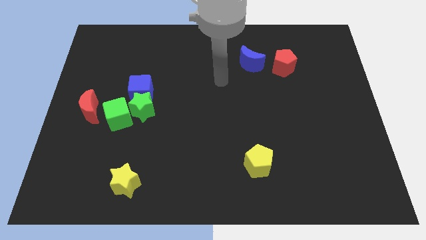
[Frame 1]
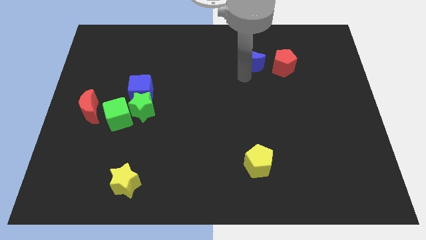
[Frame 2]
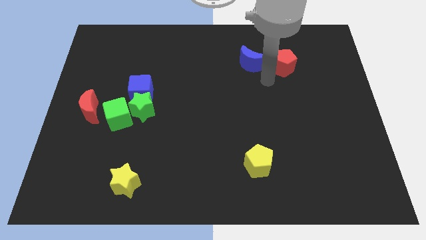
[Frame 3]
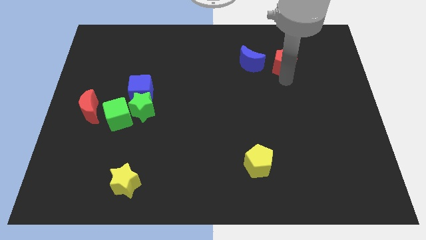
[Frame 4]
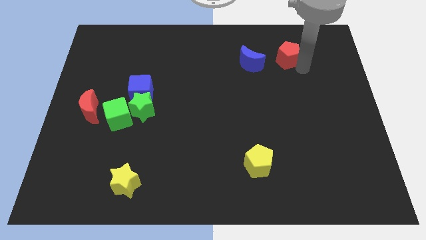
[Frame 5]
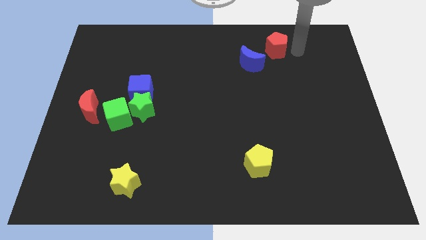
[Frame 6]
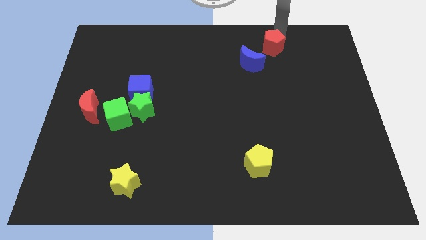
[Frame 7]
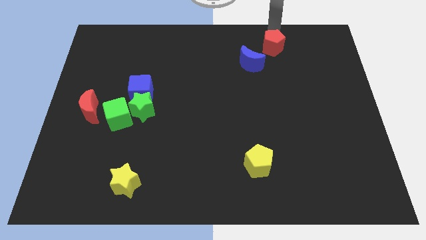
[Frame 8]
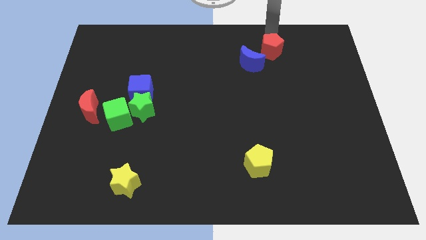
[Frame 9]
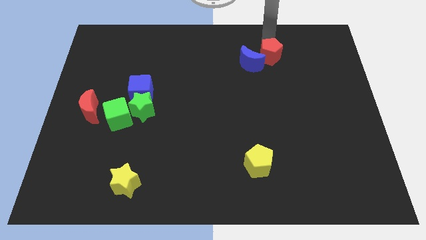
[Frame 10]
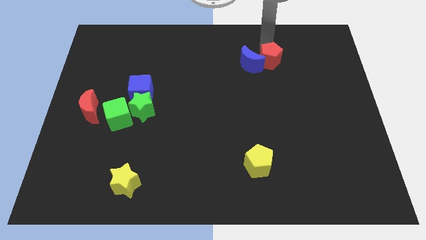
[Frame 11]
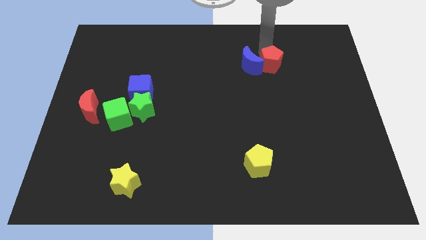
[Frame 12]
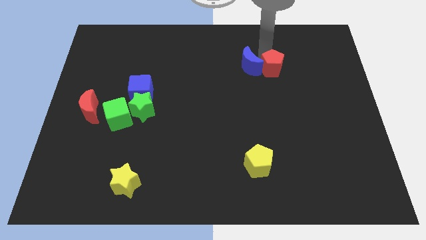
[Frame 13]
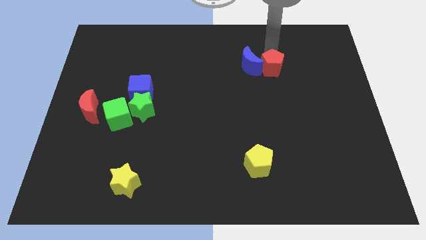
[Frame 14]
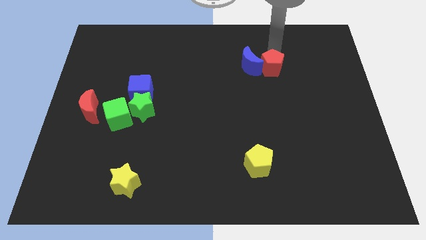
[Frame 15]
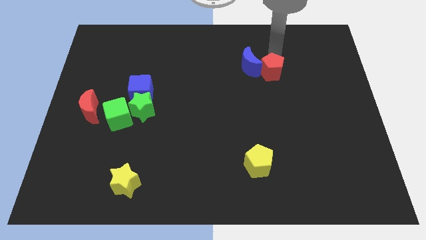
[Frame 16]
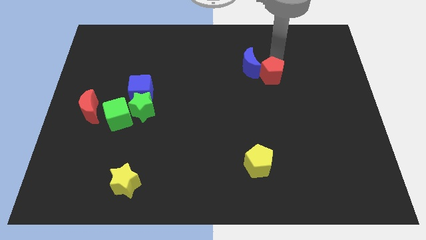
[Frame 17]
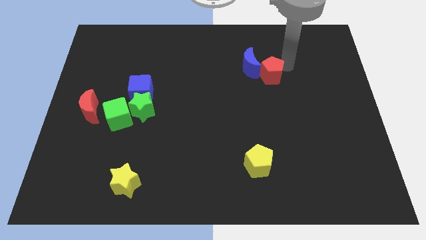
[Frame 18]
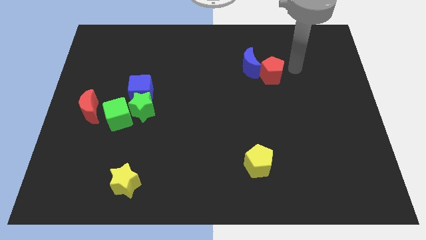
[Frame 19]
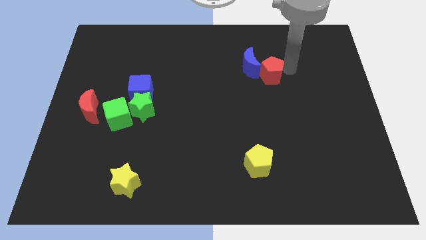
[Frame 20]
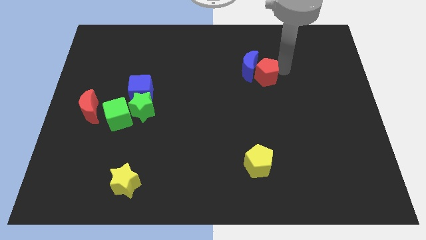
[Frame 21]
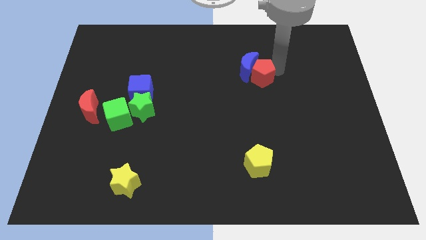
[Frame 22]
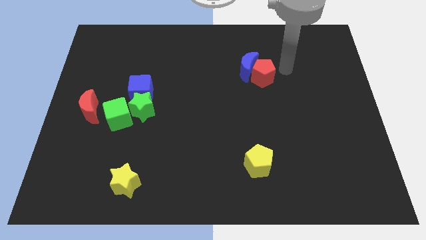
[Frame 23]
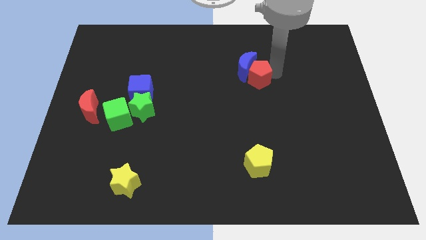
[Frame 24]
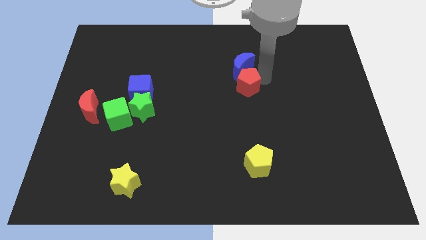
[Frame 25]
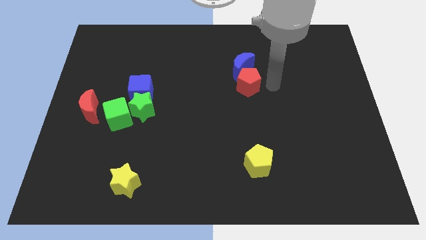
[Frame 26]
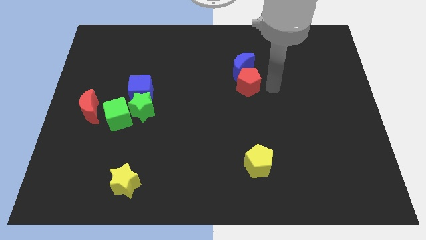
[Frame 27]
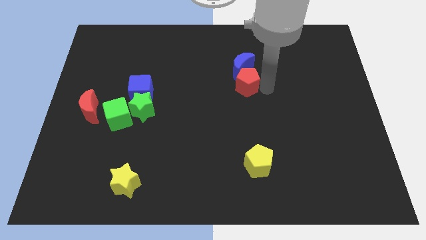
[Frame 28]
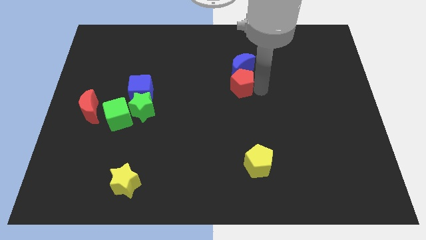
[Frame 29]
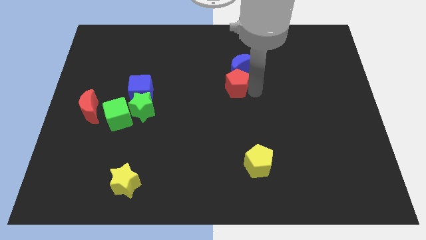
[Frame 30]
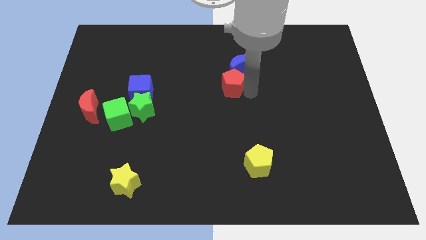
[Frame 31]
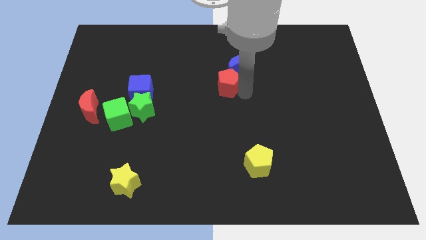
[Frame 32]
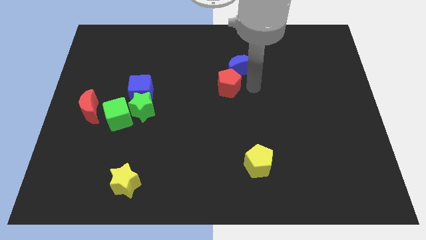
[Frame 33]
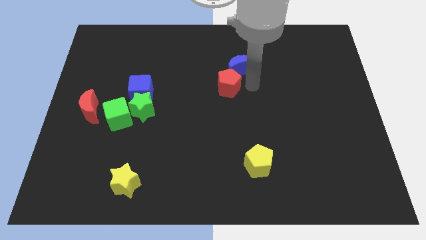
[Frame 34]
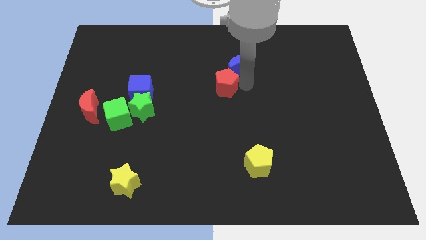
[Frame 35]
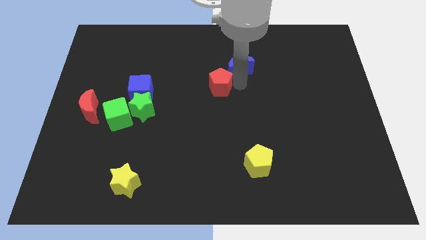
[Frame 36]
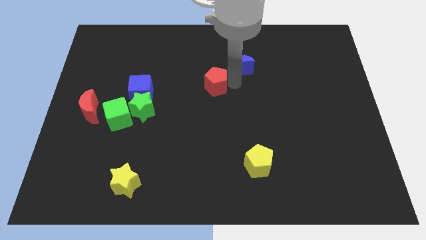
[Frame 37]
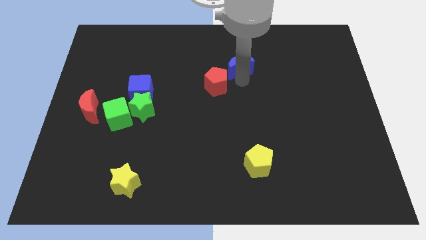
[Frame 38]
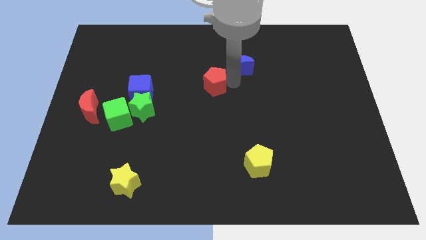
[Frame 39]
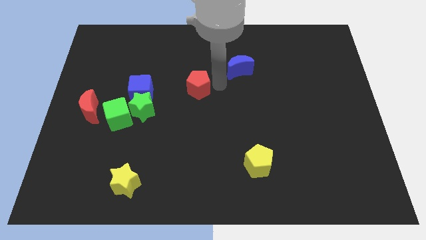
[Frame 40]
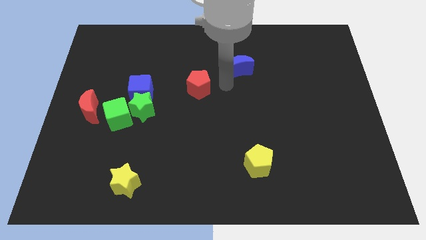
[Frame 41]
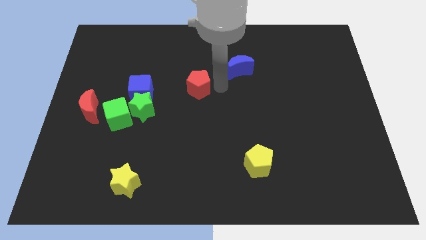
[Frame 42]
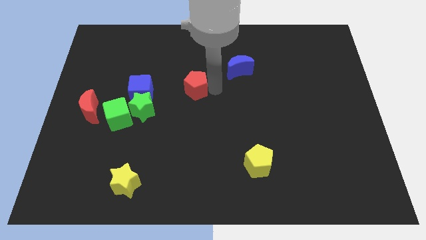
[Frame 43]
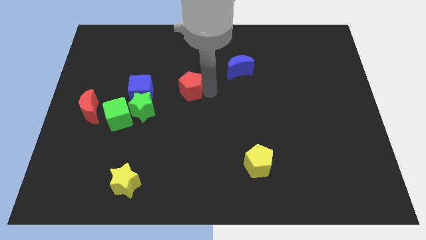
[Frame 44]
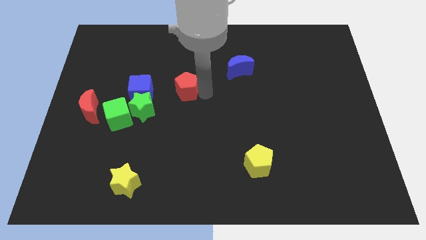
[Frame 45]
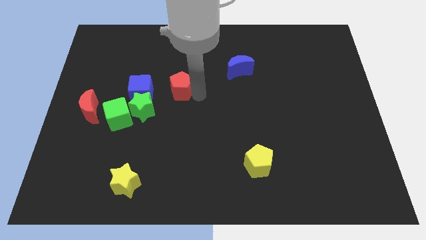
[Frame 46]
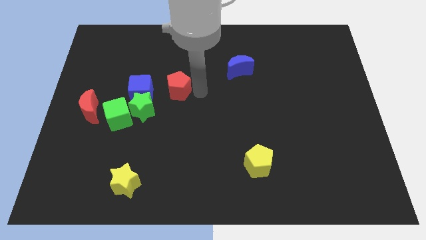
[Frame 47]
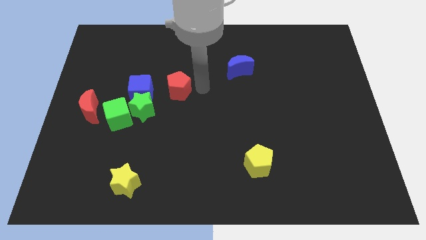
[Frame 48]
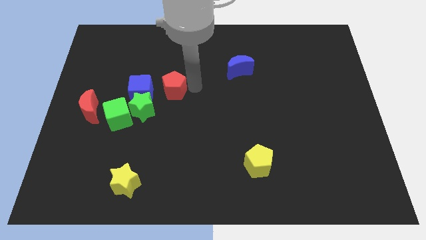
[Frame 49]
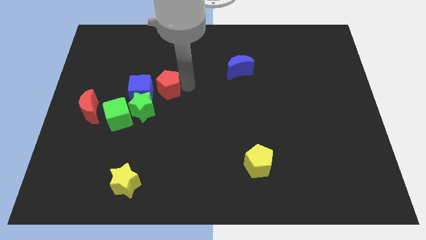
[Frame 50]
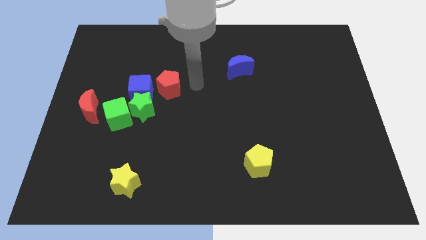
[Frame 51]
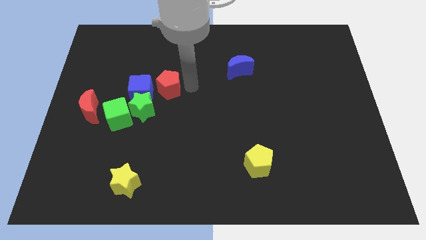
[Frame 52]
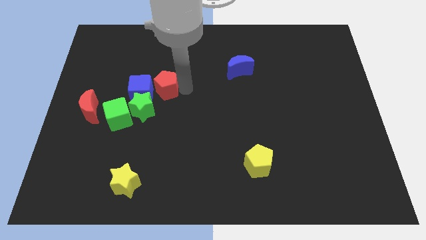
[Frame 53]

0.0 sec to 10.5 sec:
move the red pentagon close to the blue cube

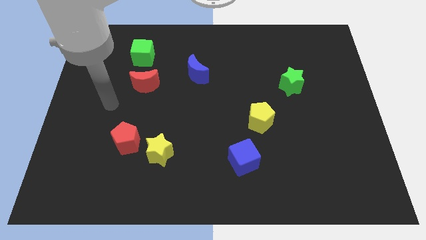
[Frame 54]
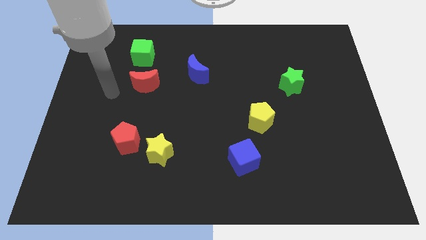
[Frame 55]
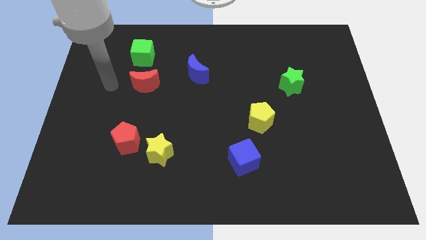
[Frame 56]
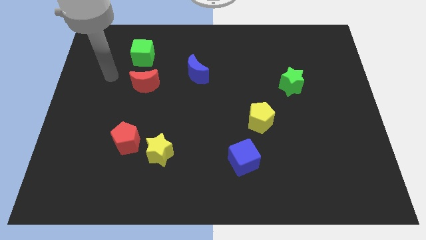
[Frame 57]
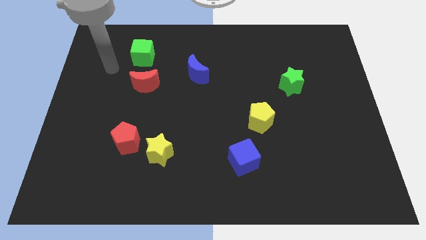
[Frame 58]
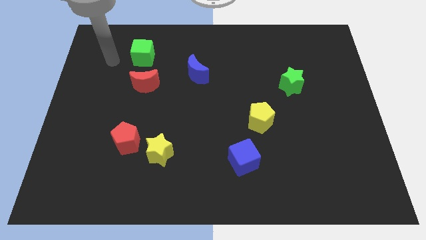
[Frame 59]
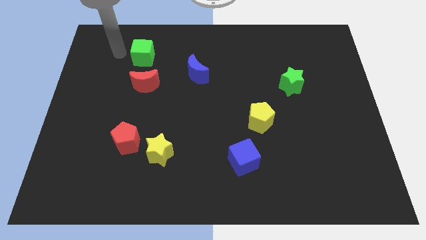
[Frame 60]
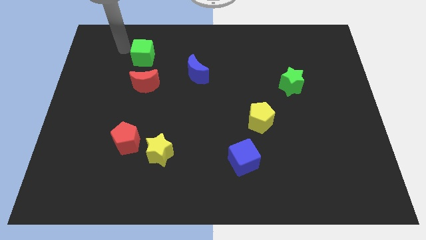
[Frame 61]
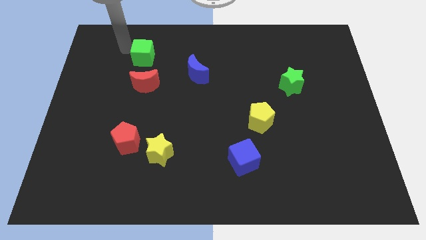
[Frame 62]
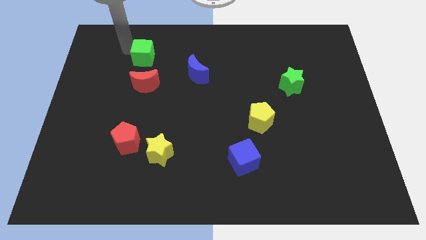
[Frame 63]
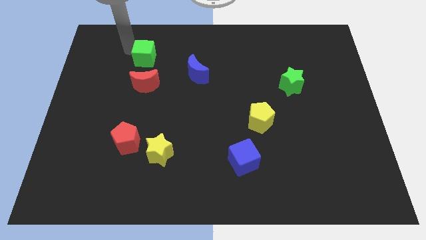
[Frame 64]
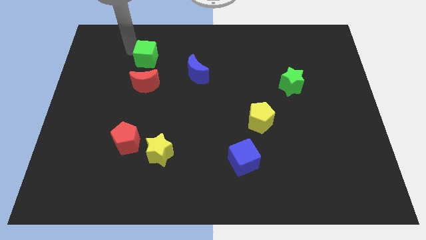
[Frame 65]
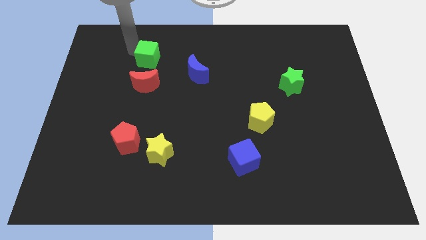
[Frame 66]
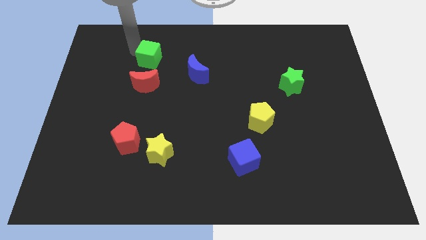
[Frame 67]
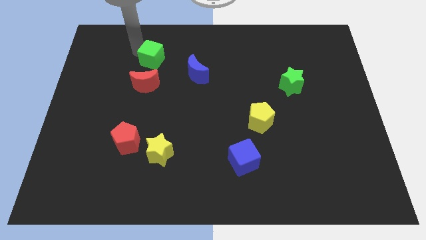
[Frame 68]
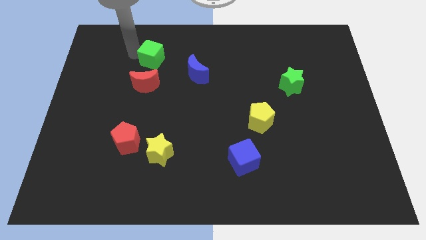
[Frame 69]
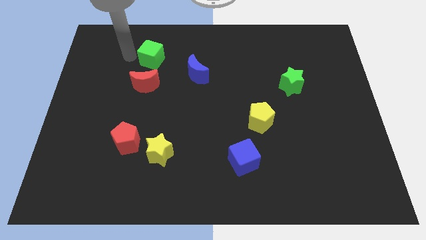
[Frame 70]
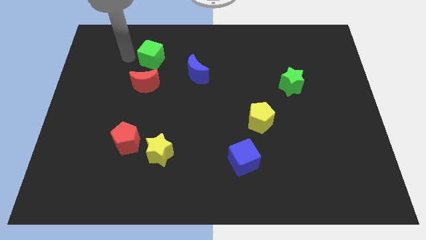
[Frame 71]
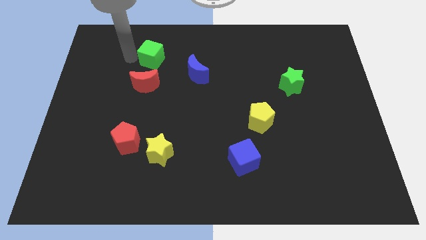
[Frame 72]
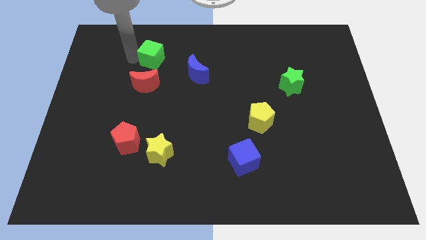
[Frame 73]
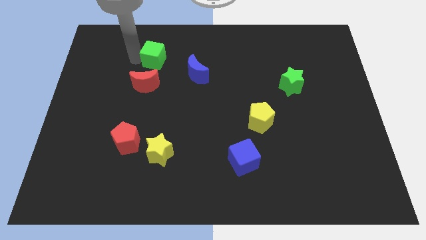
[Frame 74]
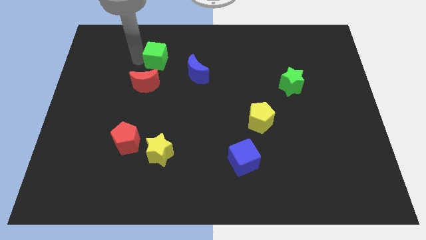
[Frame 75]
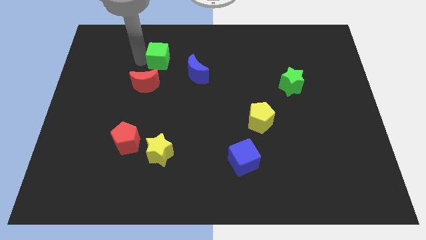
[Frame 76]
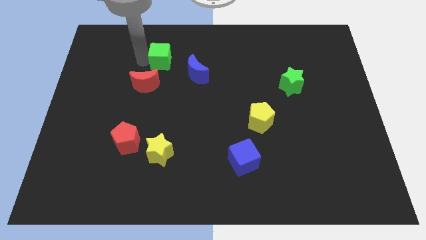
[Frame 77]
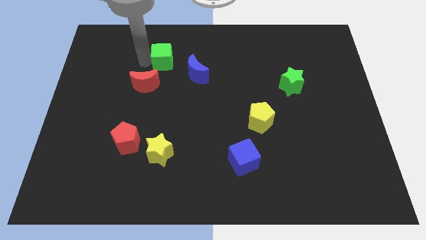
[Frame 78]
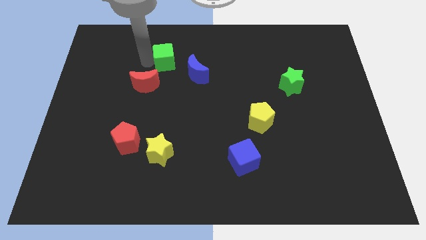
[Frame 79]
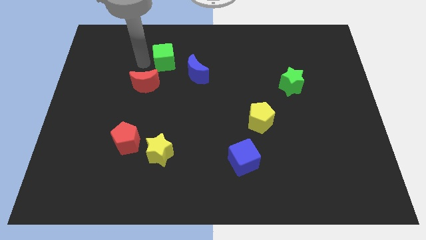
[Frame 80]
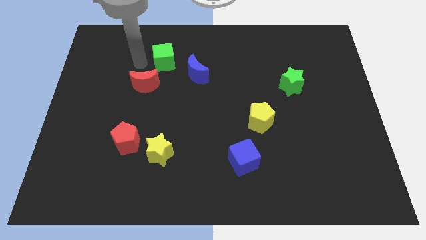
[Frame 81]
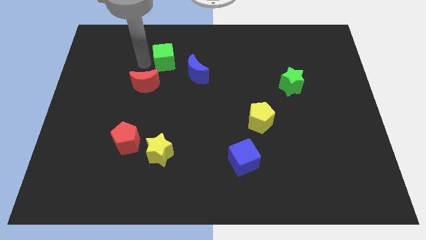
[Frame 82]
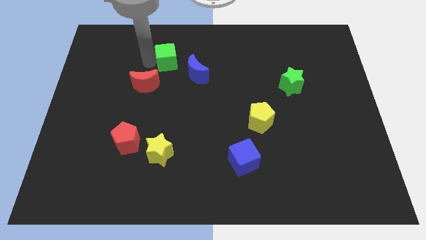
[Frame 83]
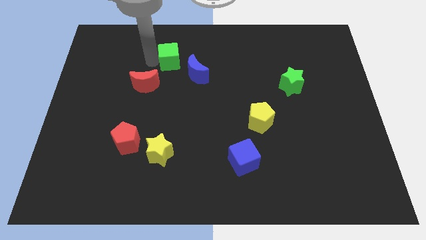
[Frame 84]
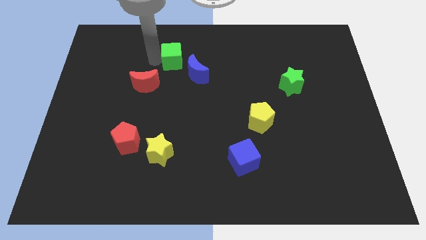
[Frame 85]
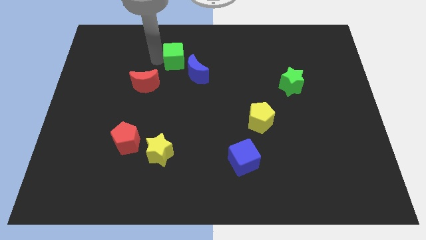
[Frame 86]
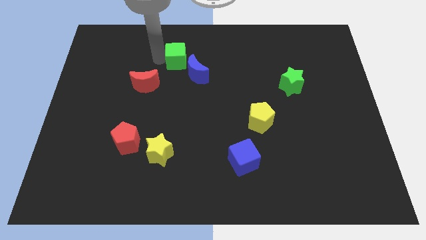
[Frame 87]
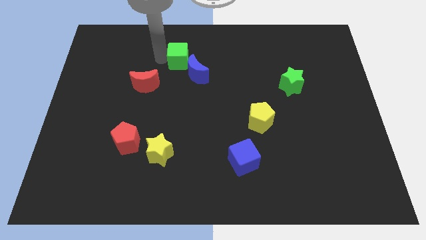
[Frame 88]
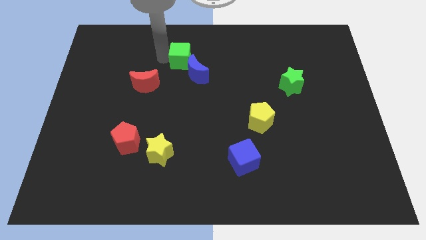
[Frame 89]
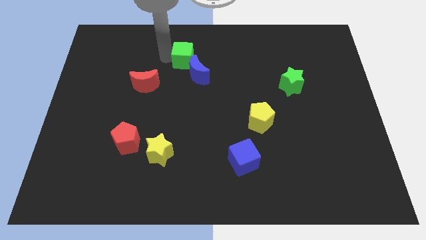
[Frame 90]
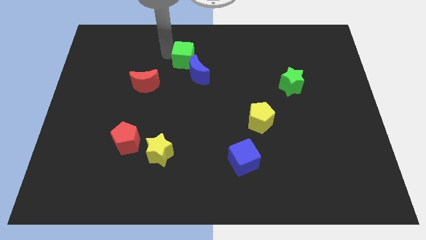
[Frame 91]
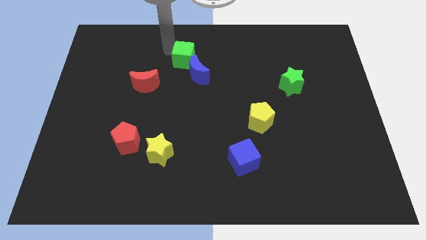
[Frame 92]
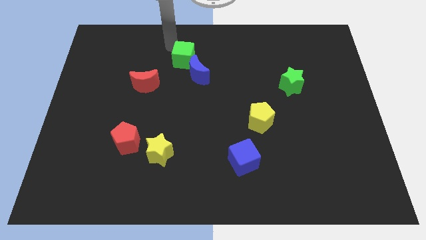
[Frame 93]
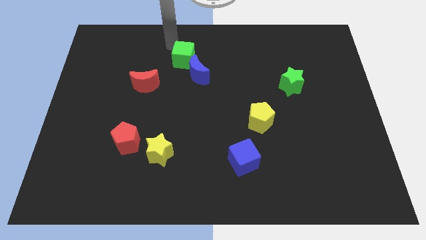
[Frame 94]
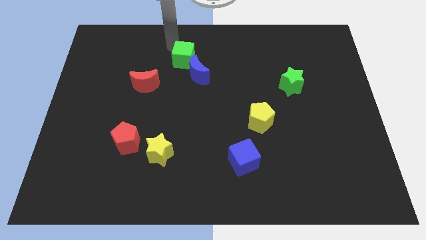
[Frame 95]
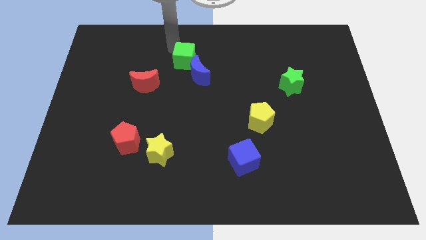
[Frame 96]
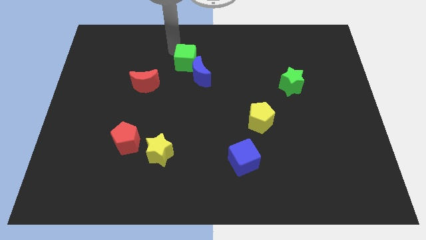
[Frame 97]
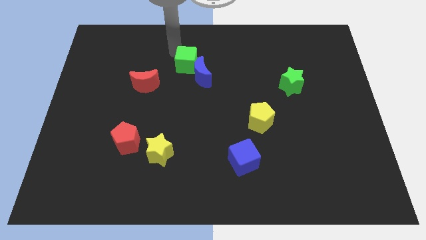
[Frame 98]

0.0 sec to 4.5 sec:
put the green cube next to the blue moon
